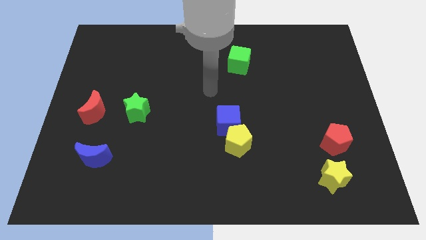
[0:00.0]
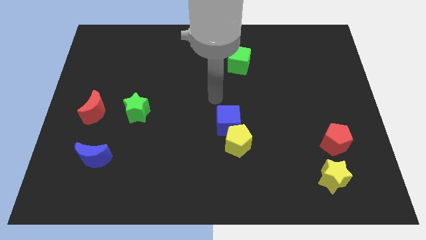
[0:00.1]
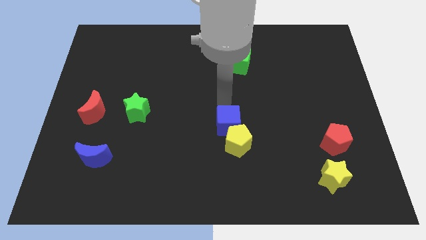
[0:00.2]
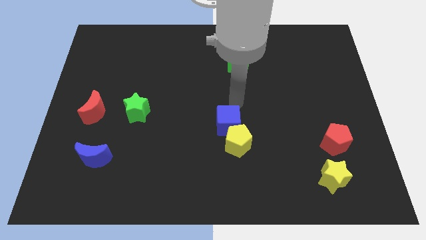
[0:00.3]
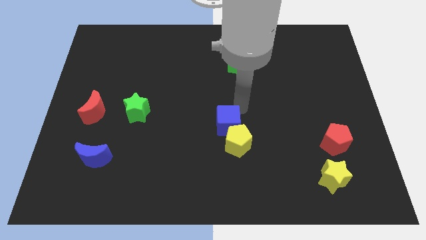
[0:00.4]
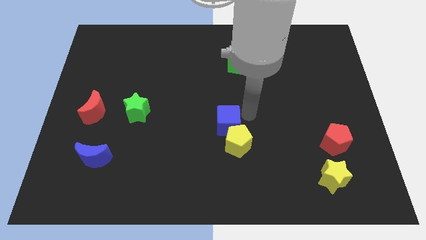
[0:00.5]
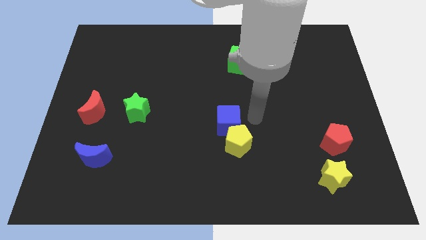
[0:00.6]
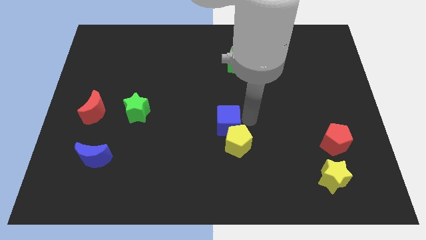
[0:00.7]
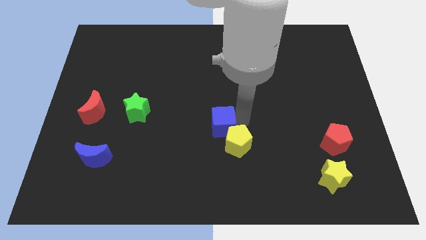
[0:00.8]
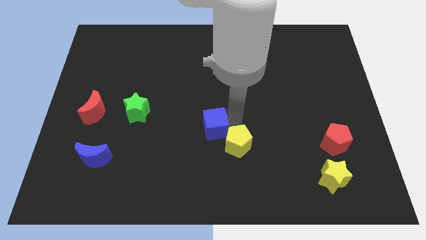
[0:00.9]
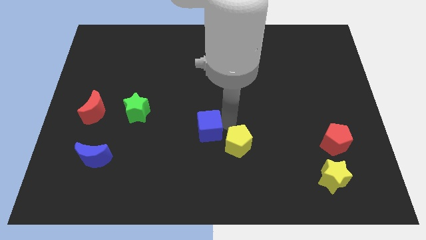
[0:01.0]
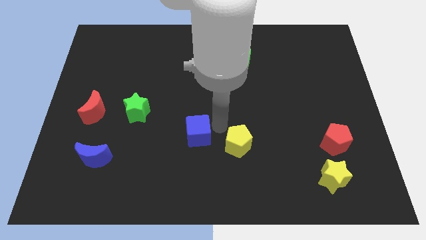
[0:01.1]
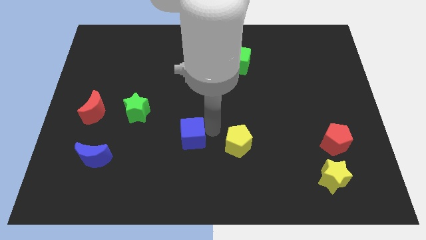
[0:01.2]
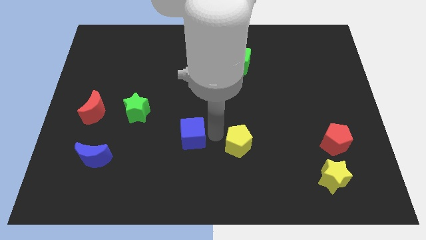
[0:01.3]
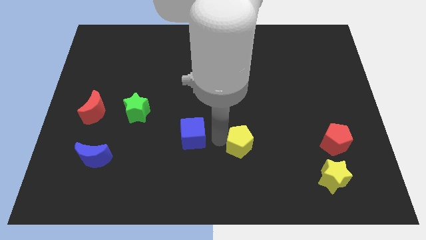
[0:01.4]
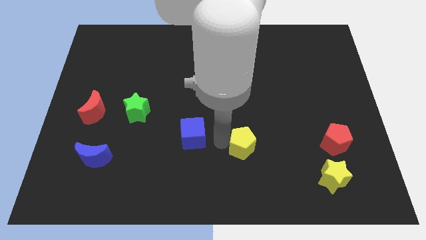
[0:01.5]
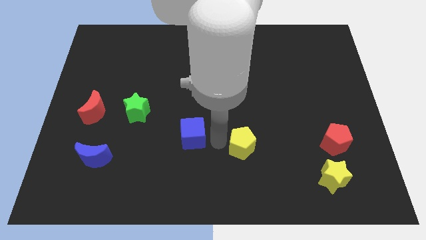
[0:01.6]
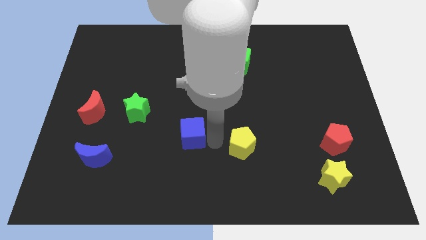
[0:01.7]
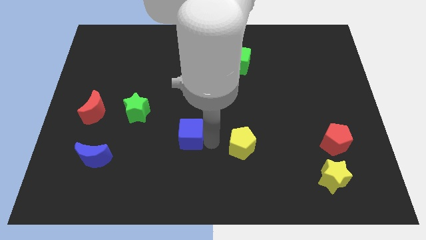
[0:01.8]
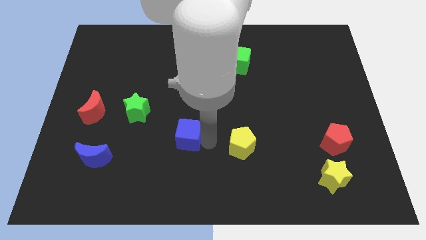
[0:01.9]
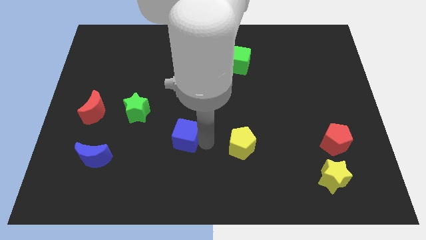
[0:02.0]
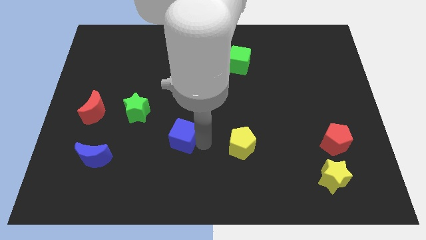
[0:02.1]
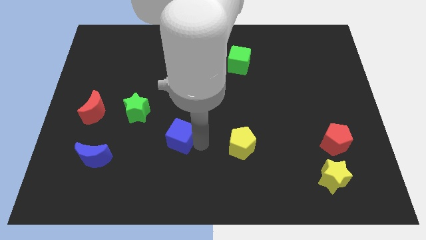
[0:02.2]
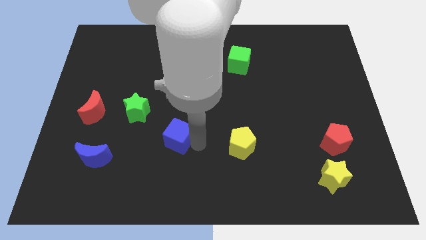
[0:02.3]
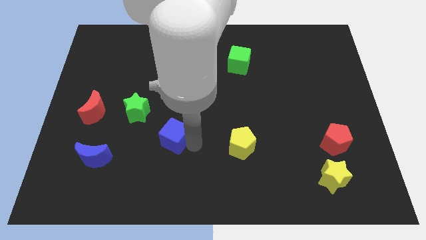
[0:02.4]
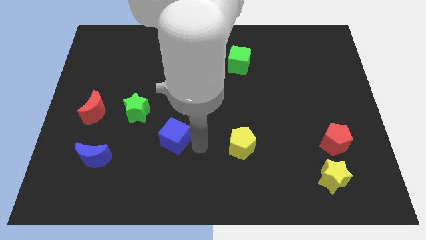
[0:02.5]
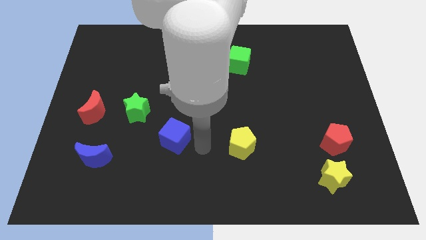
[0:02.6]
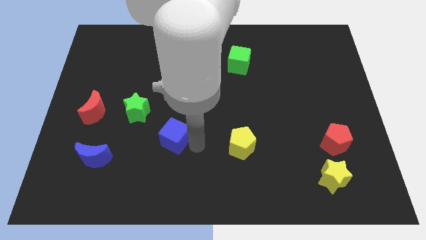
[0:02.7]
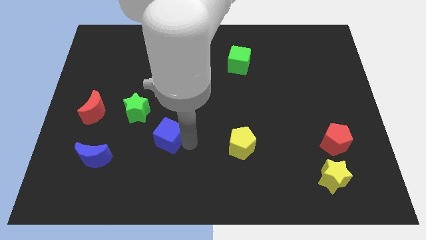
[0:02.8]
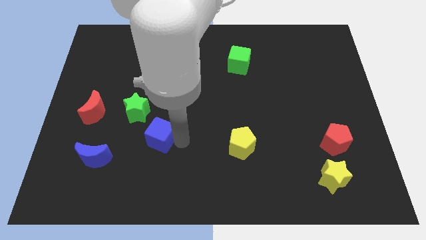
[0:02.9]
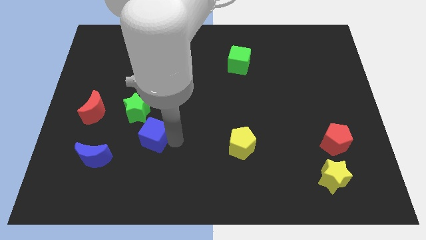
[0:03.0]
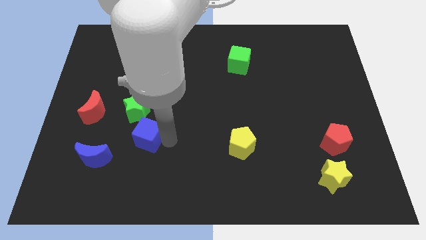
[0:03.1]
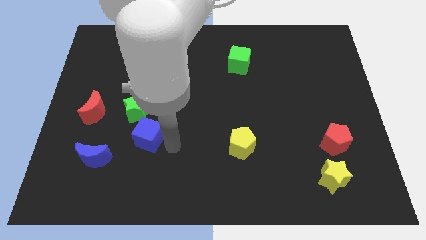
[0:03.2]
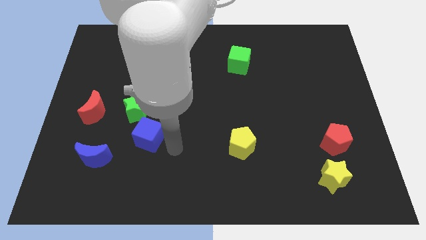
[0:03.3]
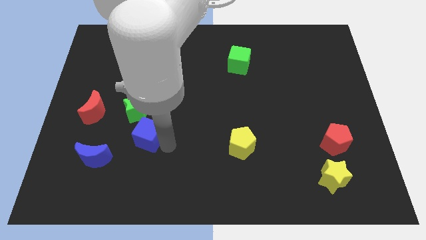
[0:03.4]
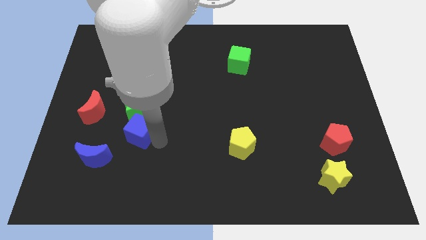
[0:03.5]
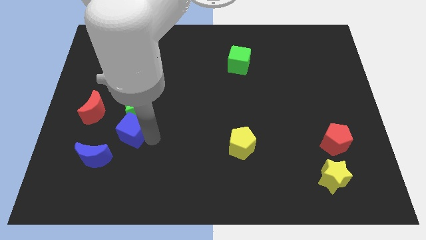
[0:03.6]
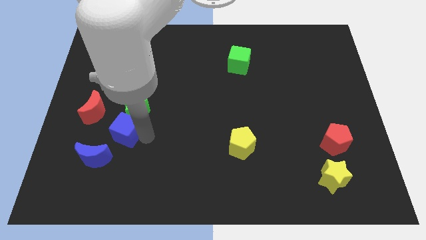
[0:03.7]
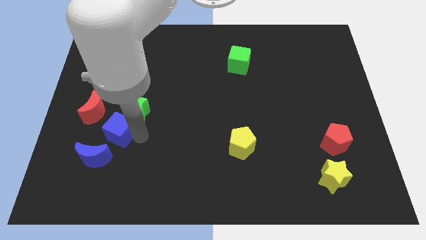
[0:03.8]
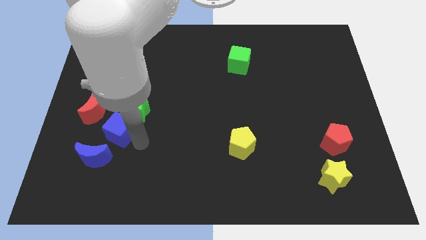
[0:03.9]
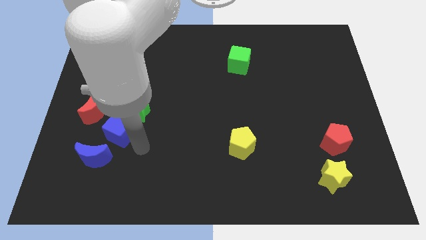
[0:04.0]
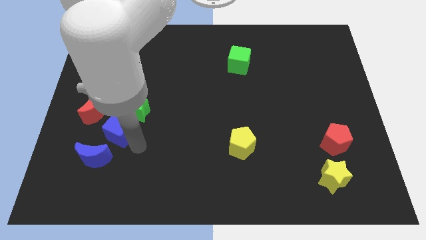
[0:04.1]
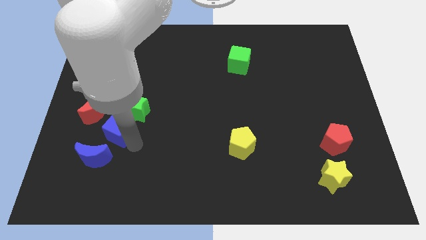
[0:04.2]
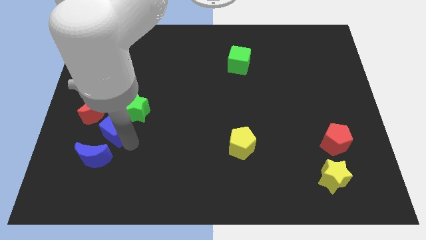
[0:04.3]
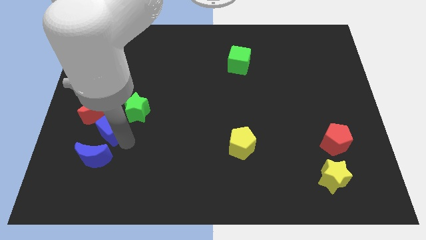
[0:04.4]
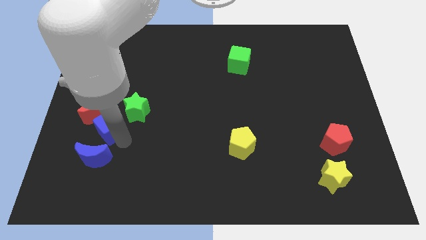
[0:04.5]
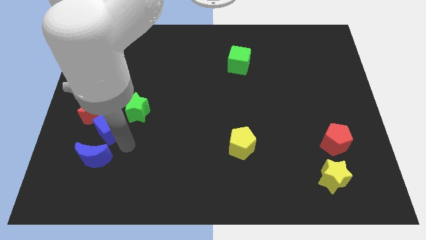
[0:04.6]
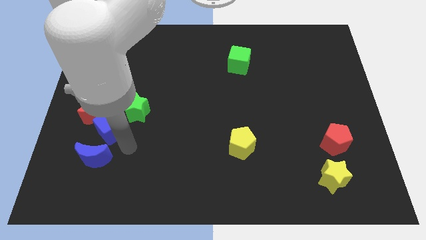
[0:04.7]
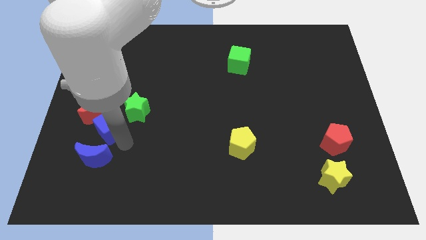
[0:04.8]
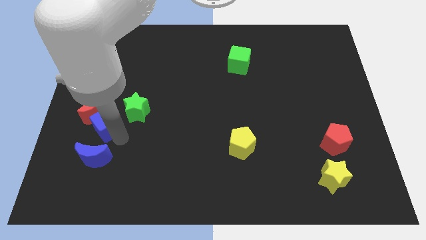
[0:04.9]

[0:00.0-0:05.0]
move the blue cube next to the red moon

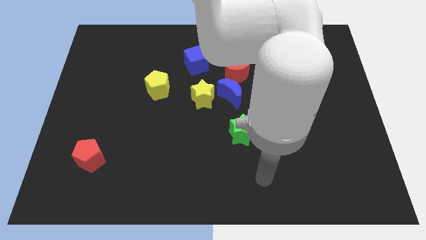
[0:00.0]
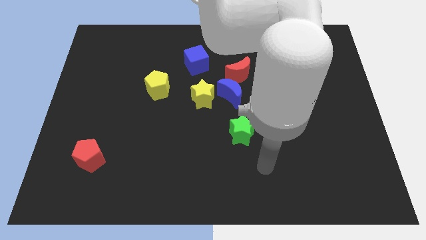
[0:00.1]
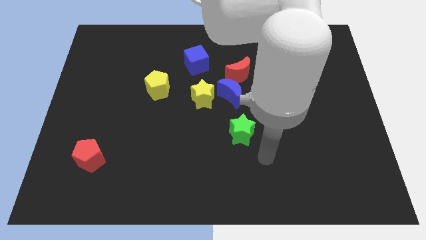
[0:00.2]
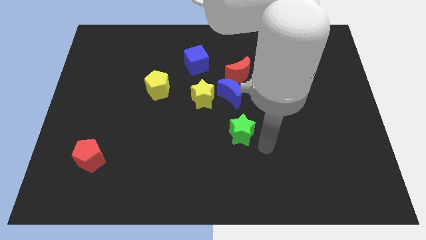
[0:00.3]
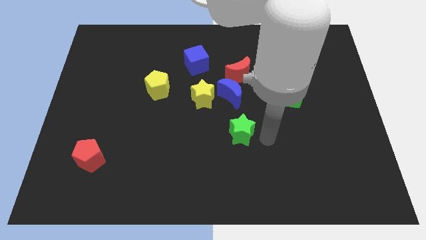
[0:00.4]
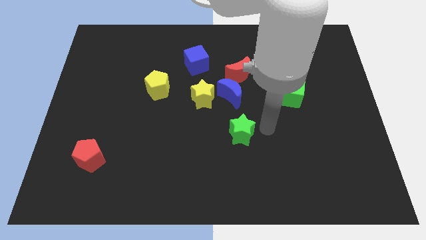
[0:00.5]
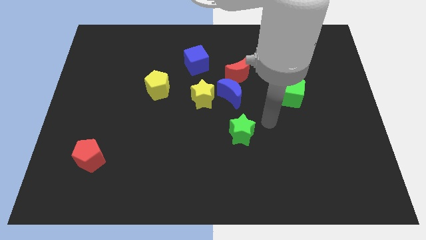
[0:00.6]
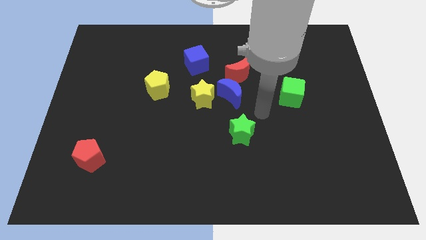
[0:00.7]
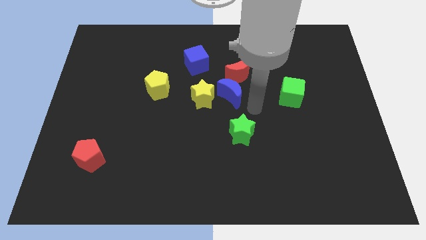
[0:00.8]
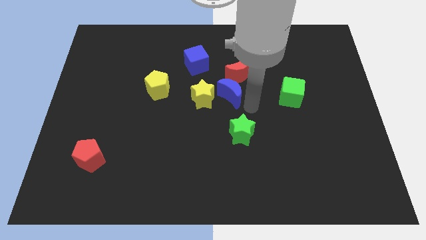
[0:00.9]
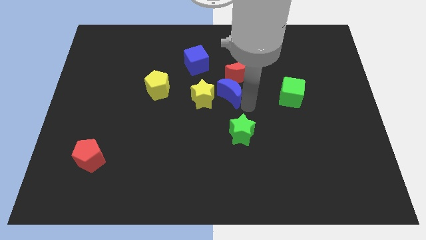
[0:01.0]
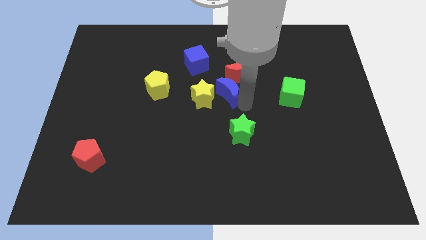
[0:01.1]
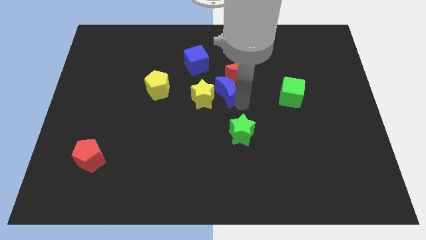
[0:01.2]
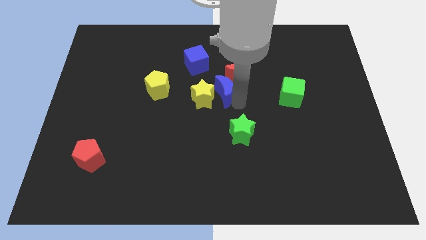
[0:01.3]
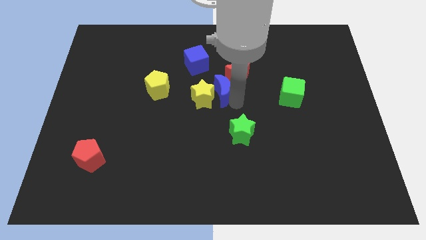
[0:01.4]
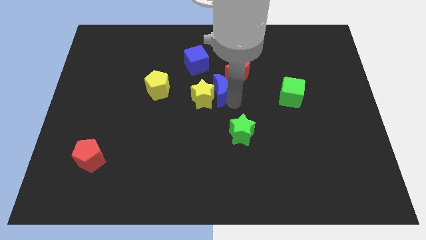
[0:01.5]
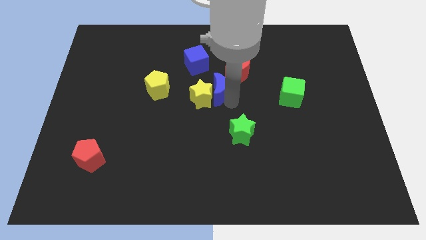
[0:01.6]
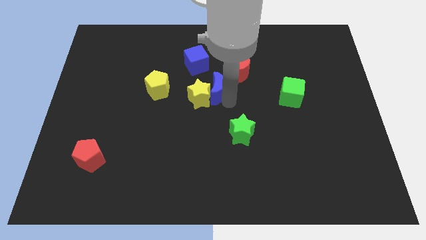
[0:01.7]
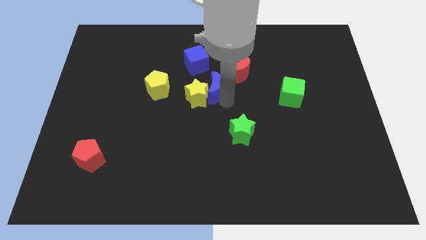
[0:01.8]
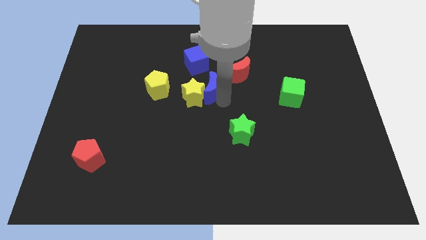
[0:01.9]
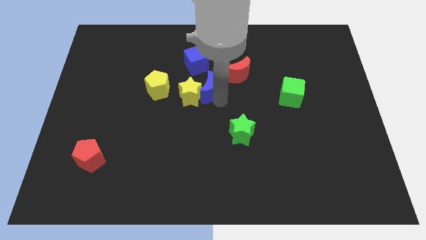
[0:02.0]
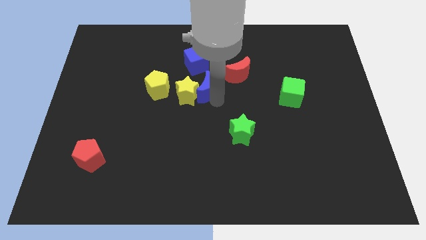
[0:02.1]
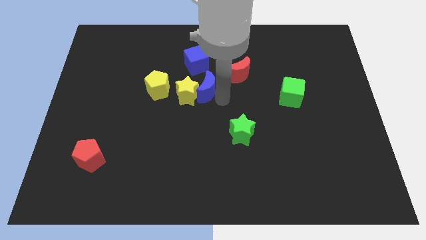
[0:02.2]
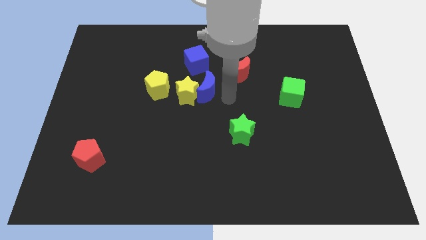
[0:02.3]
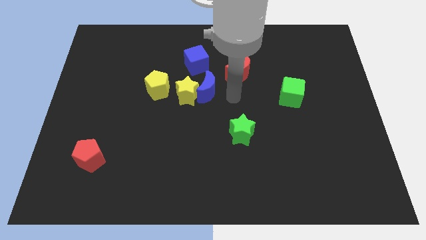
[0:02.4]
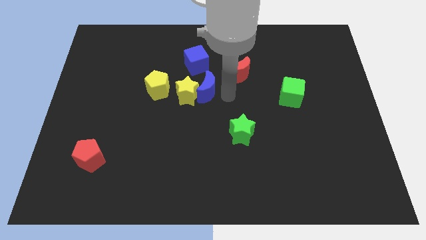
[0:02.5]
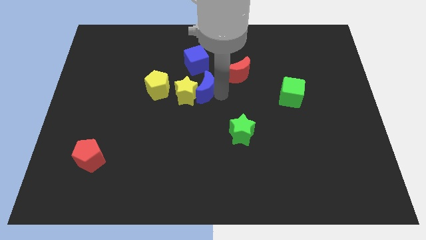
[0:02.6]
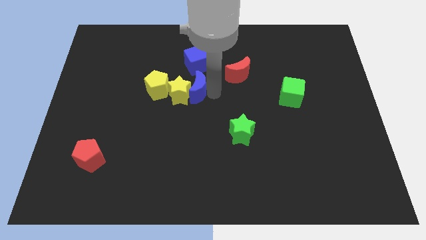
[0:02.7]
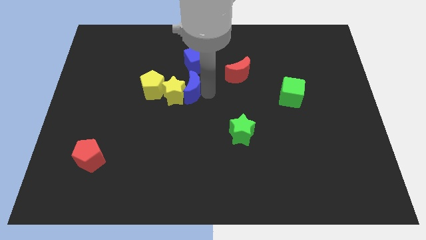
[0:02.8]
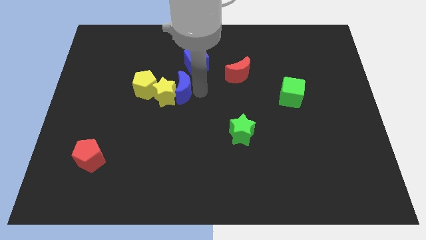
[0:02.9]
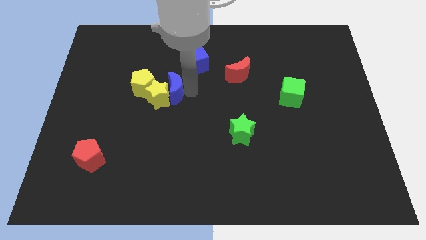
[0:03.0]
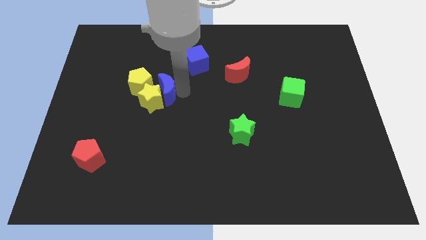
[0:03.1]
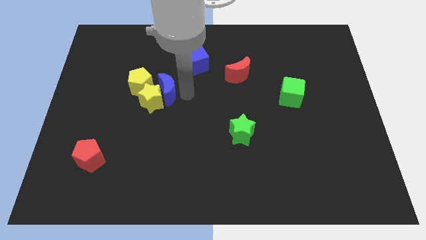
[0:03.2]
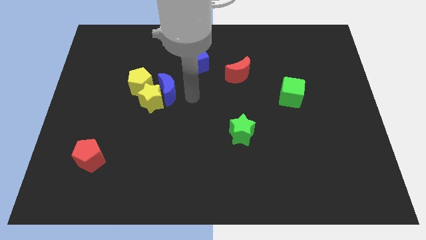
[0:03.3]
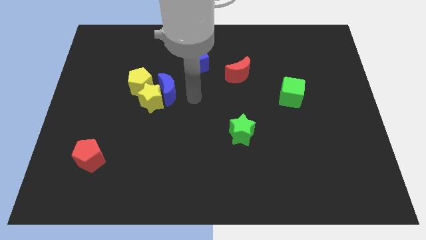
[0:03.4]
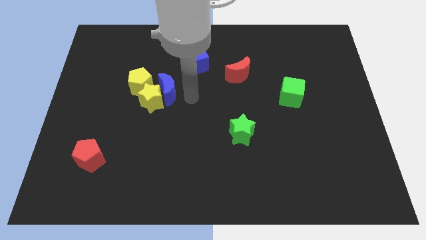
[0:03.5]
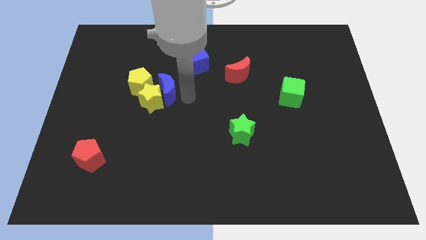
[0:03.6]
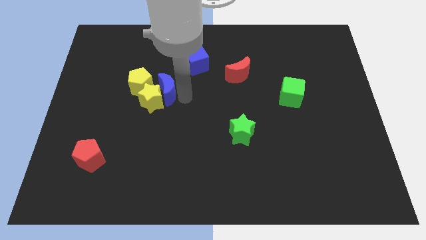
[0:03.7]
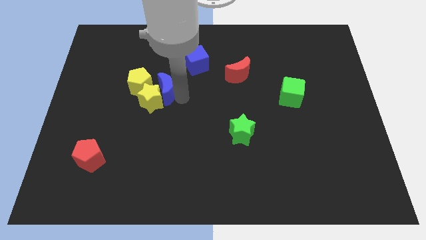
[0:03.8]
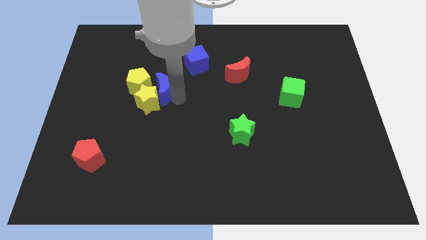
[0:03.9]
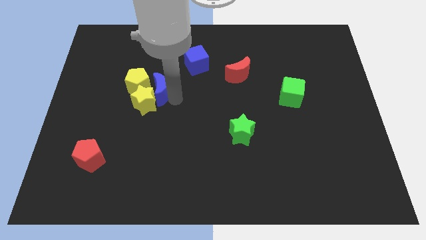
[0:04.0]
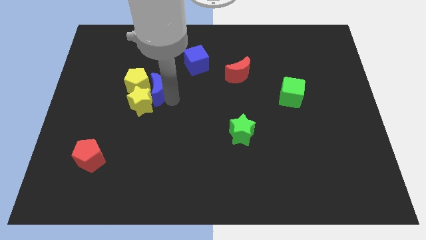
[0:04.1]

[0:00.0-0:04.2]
slide the blue moon towards the yellow pentagon
